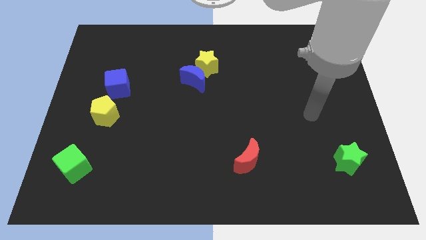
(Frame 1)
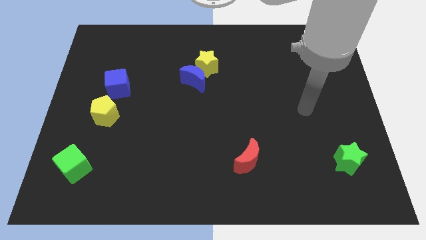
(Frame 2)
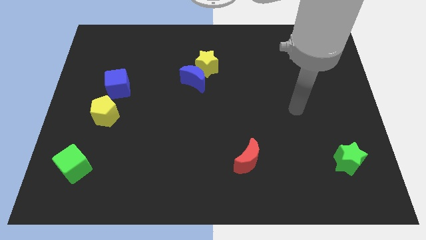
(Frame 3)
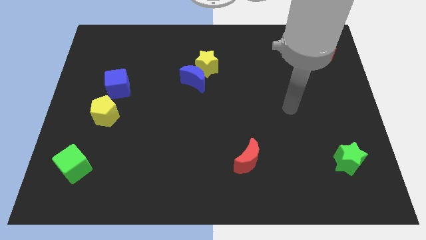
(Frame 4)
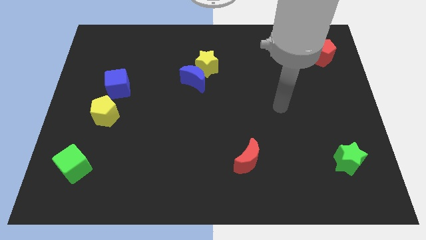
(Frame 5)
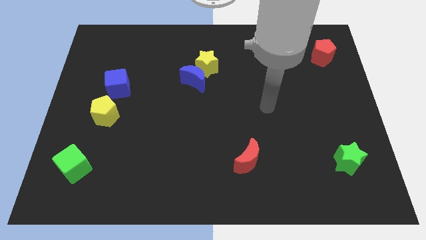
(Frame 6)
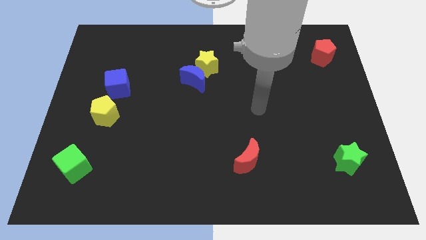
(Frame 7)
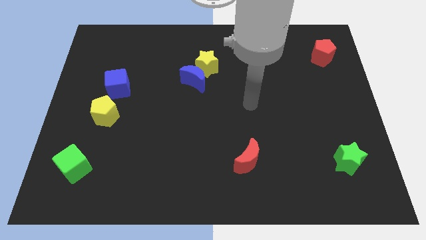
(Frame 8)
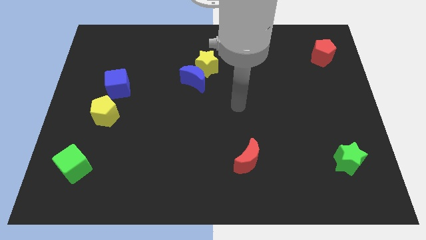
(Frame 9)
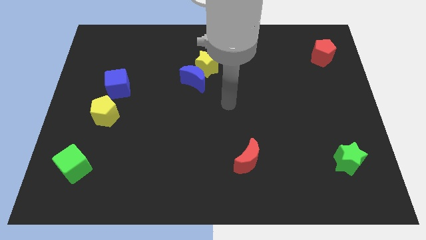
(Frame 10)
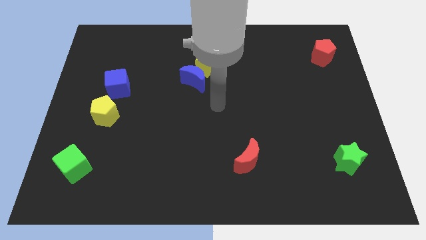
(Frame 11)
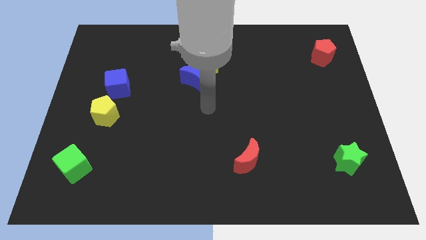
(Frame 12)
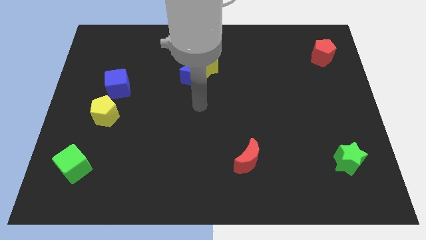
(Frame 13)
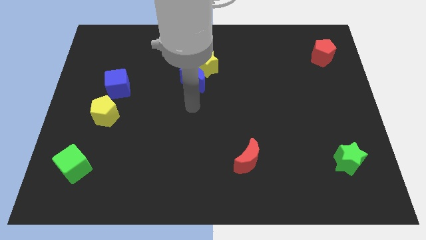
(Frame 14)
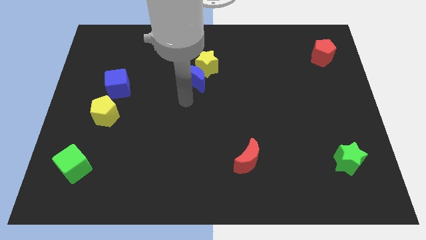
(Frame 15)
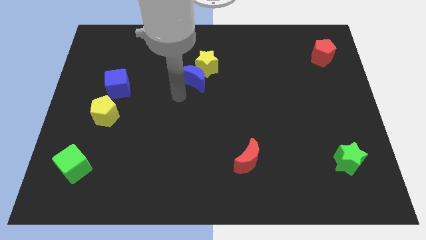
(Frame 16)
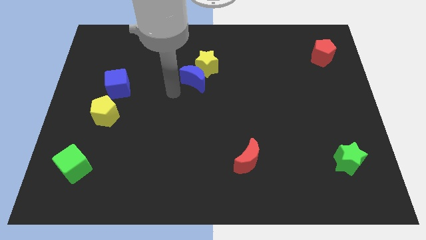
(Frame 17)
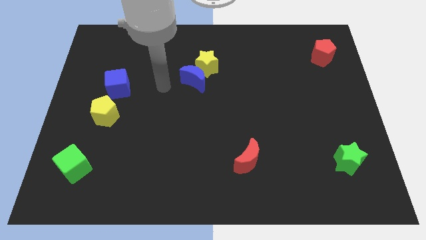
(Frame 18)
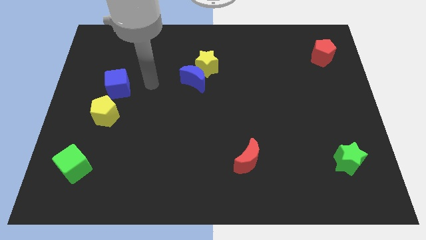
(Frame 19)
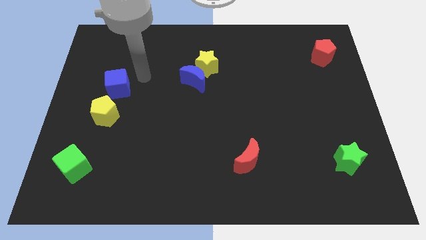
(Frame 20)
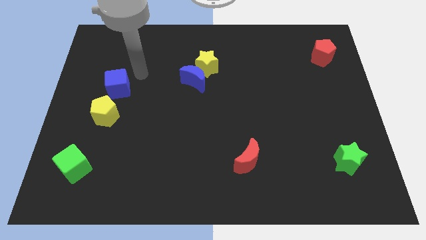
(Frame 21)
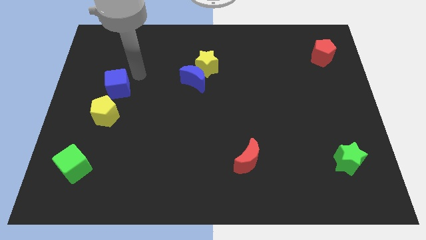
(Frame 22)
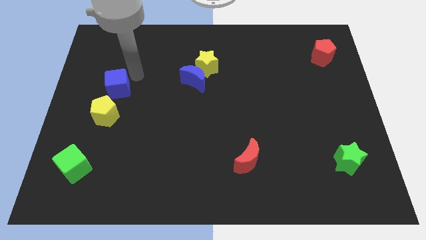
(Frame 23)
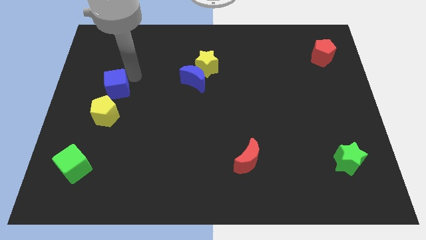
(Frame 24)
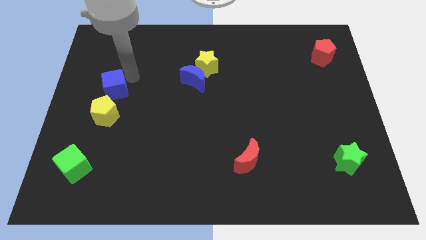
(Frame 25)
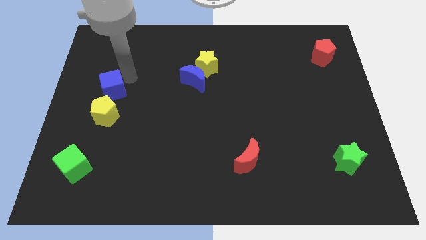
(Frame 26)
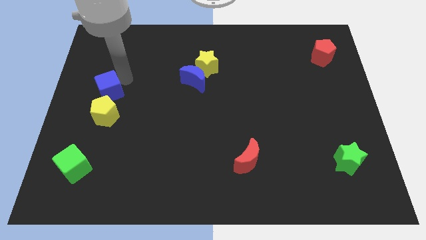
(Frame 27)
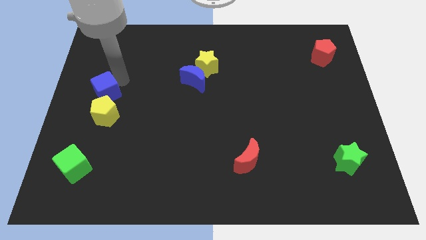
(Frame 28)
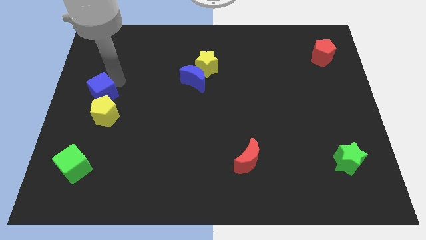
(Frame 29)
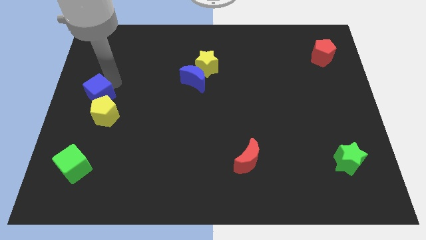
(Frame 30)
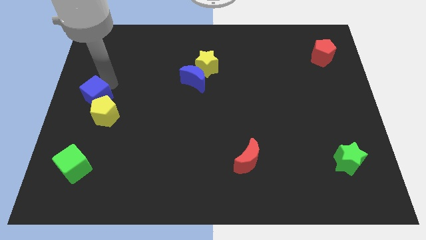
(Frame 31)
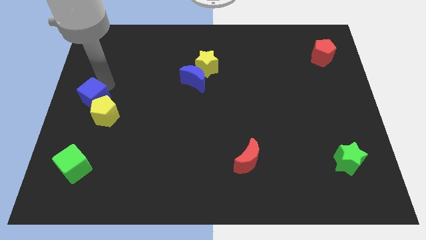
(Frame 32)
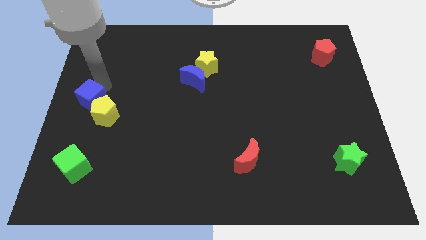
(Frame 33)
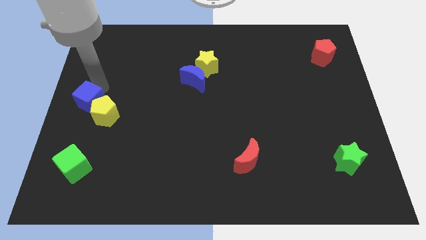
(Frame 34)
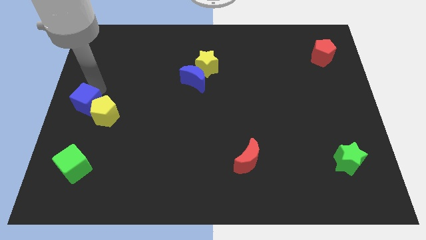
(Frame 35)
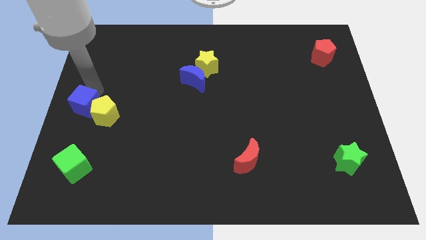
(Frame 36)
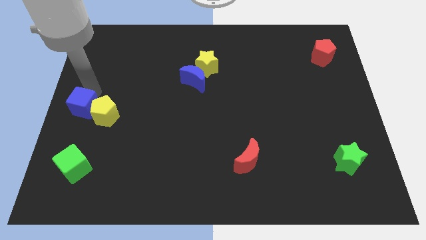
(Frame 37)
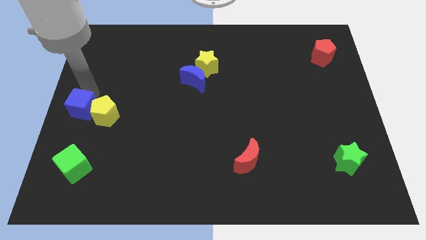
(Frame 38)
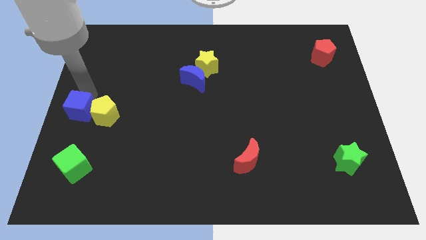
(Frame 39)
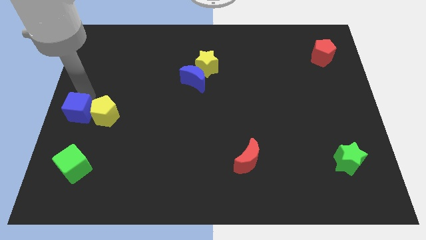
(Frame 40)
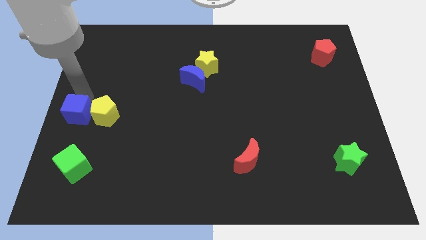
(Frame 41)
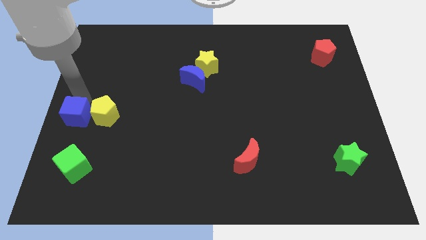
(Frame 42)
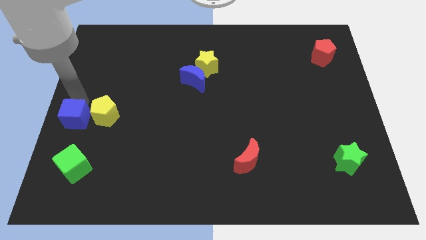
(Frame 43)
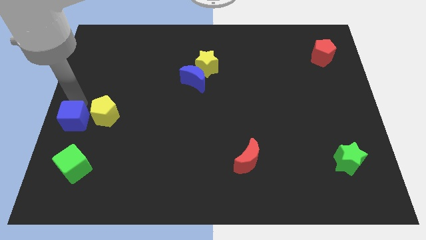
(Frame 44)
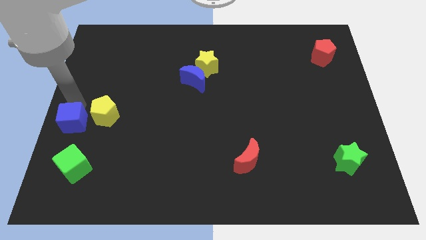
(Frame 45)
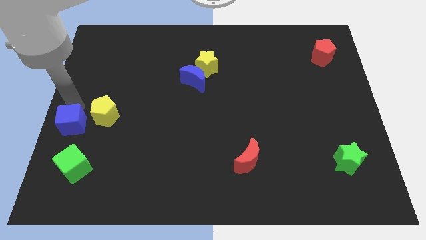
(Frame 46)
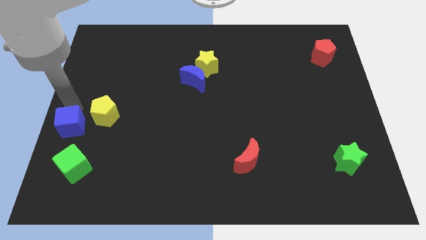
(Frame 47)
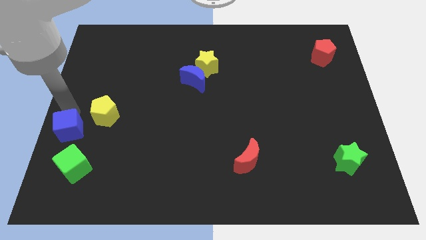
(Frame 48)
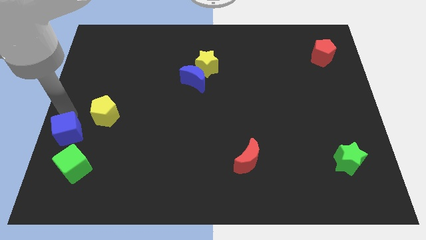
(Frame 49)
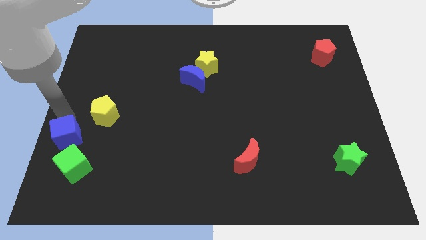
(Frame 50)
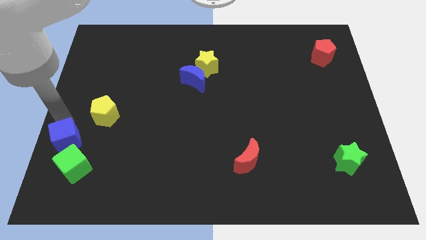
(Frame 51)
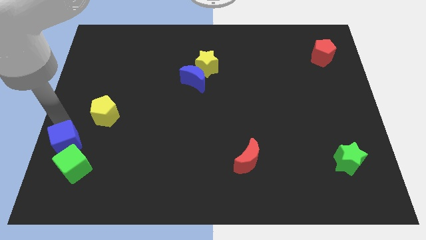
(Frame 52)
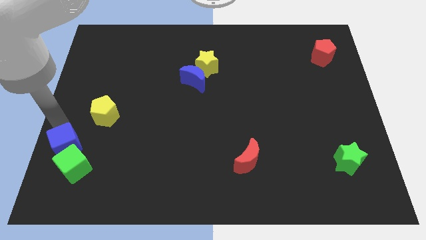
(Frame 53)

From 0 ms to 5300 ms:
put the blue cube towards the green cube

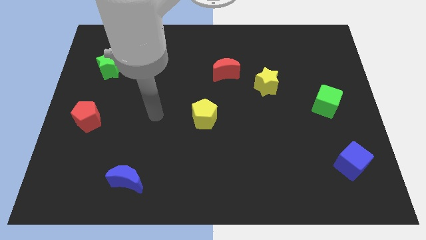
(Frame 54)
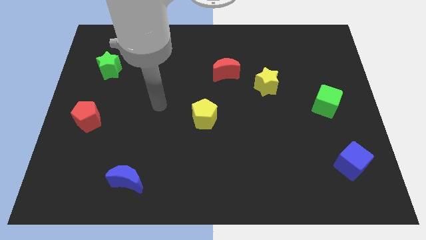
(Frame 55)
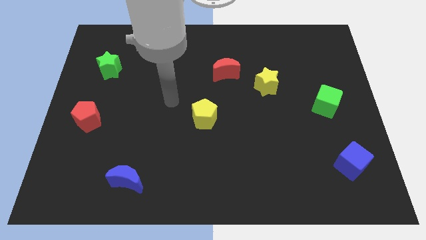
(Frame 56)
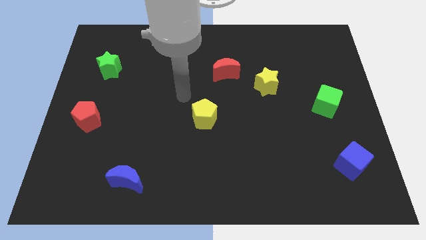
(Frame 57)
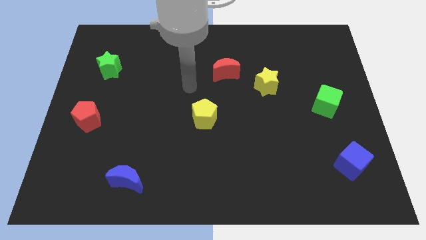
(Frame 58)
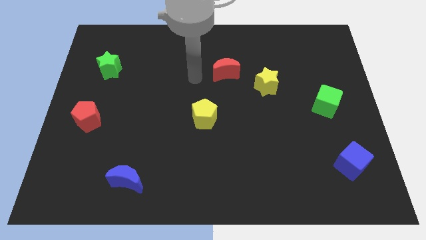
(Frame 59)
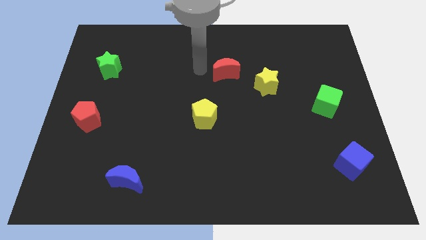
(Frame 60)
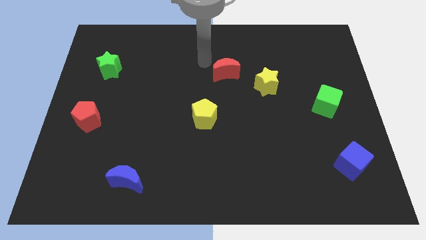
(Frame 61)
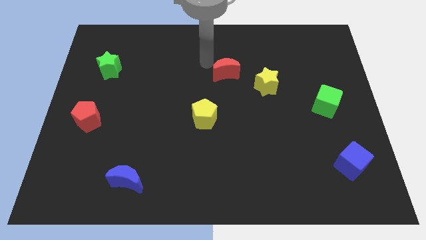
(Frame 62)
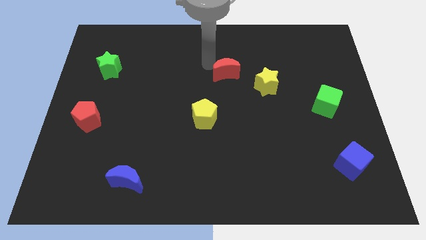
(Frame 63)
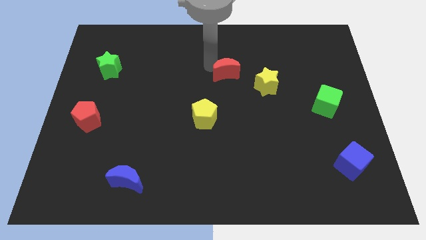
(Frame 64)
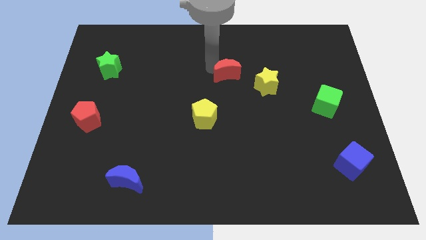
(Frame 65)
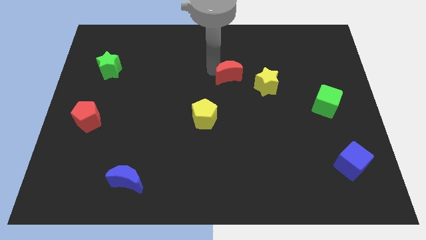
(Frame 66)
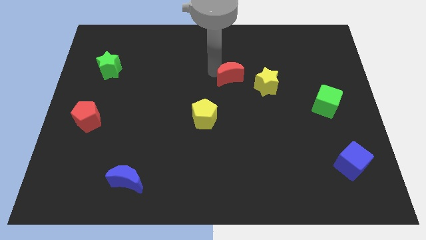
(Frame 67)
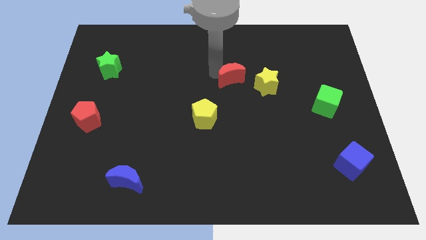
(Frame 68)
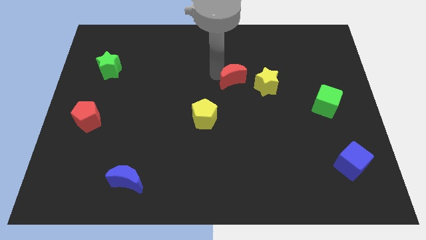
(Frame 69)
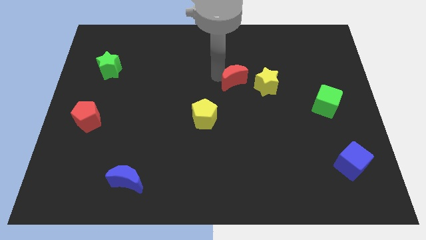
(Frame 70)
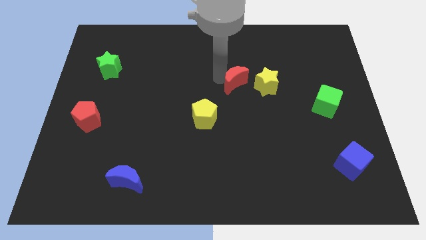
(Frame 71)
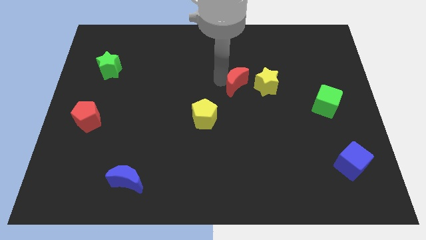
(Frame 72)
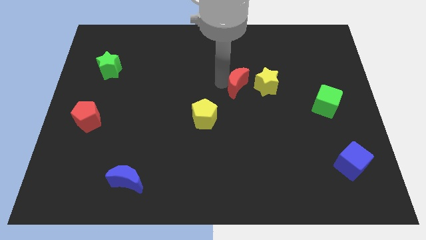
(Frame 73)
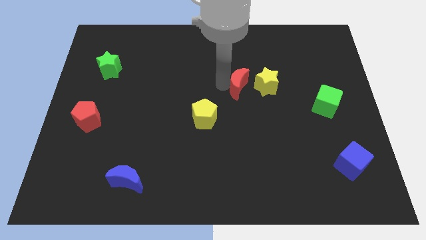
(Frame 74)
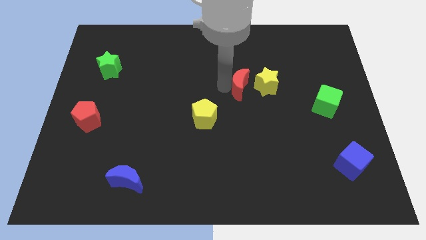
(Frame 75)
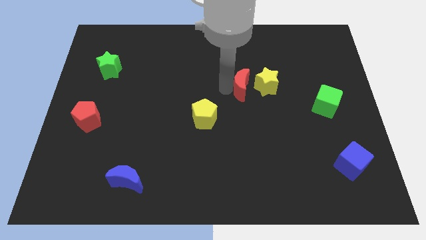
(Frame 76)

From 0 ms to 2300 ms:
slide the red moon towards the yellow star
